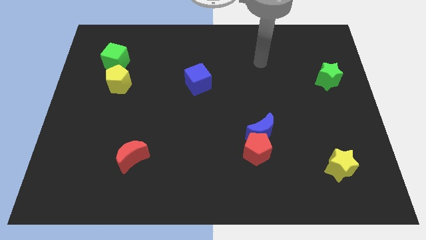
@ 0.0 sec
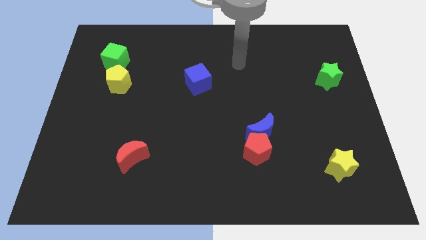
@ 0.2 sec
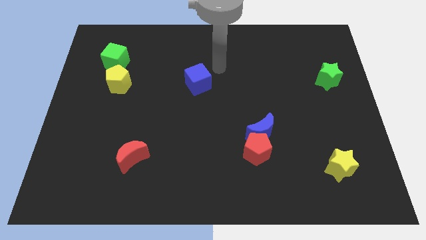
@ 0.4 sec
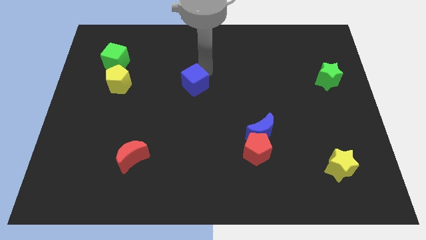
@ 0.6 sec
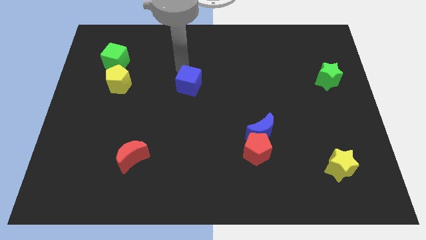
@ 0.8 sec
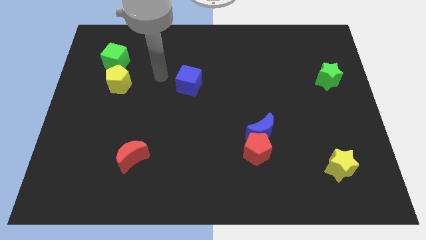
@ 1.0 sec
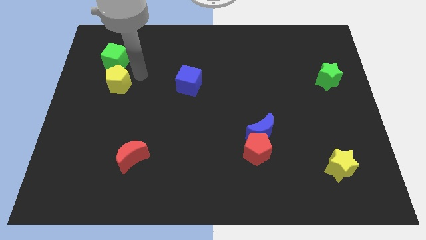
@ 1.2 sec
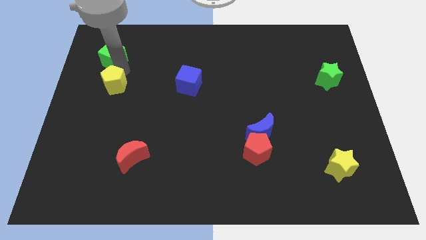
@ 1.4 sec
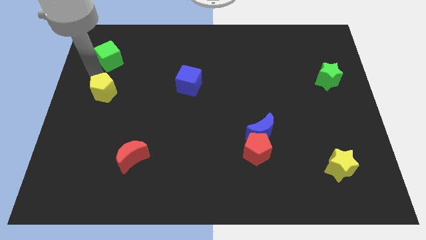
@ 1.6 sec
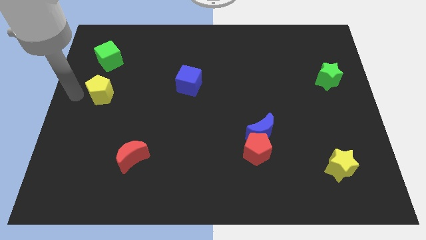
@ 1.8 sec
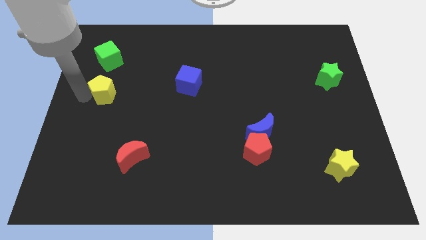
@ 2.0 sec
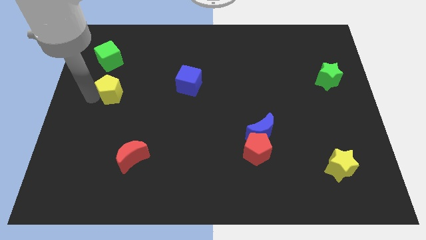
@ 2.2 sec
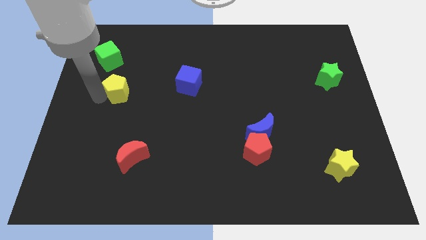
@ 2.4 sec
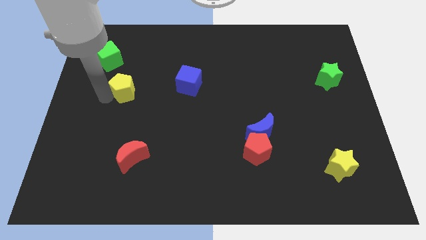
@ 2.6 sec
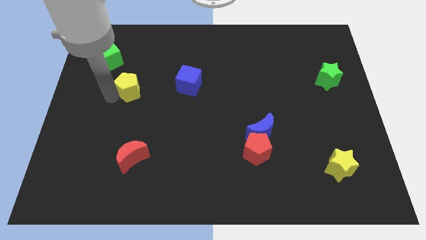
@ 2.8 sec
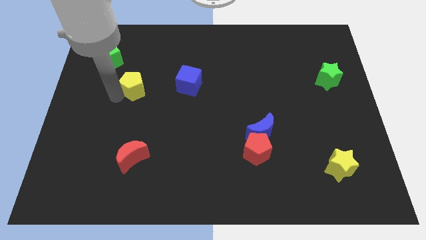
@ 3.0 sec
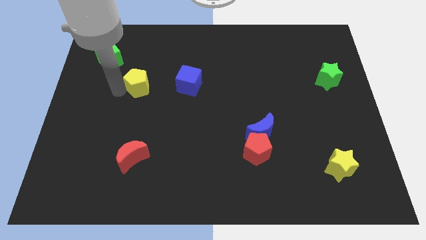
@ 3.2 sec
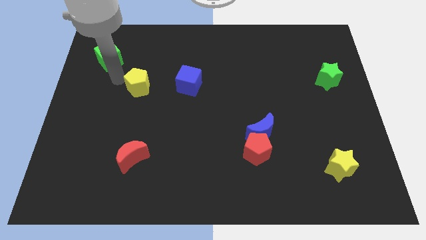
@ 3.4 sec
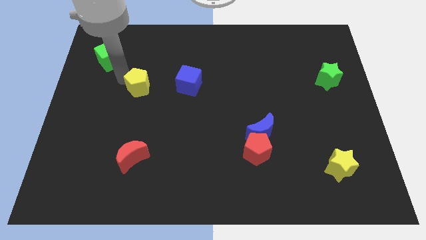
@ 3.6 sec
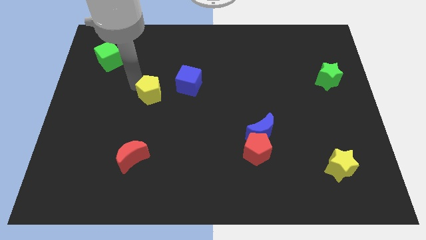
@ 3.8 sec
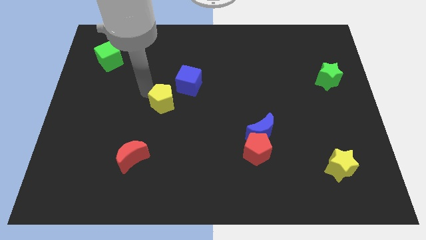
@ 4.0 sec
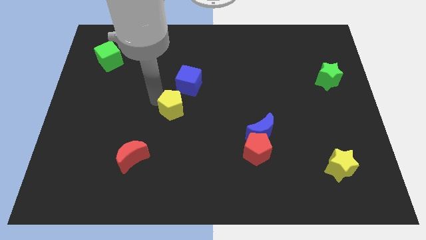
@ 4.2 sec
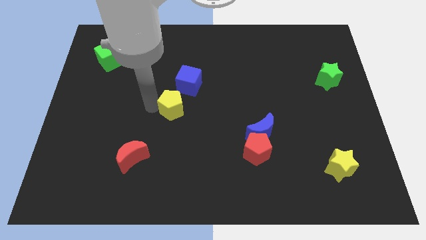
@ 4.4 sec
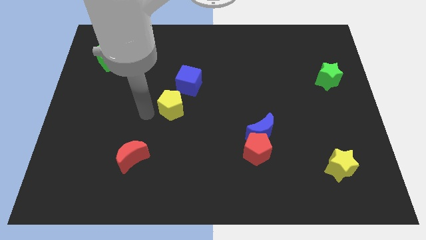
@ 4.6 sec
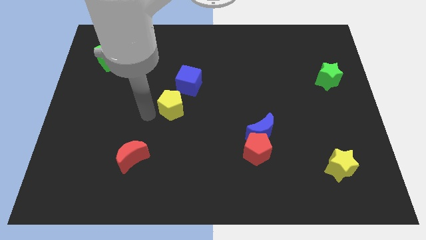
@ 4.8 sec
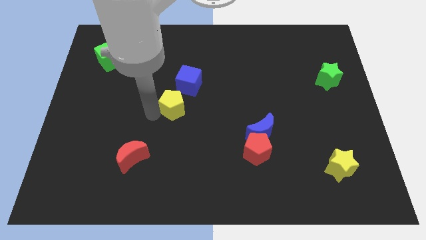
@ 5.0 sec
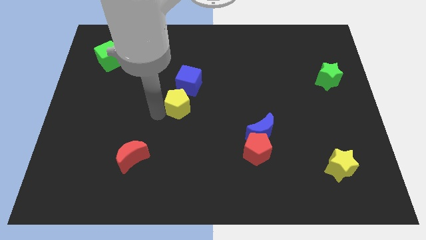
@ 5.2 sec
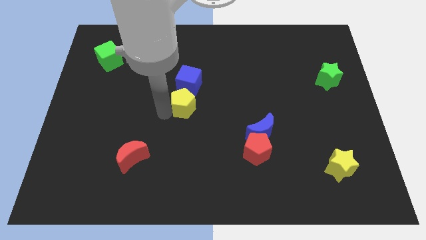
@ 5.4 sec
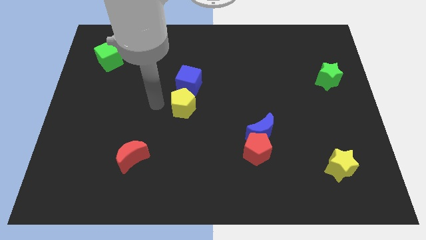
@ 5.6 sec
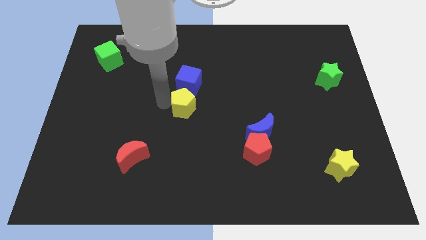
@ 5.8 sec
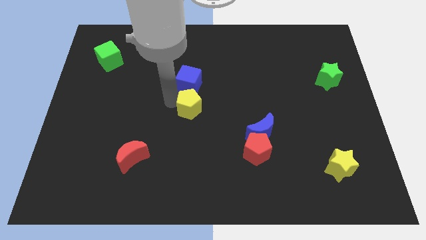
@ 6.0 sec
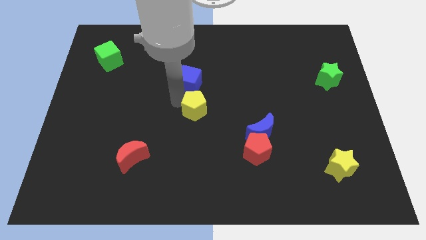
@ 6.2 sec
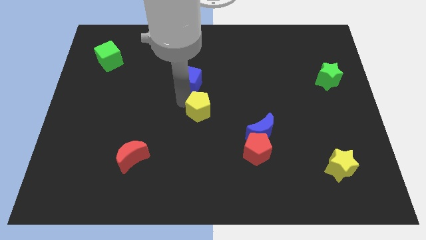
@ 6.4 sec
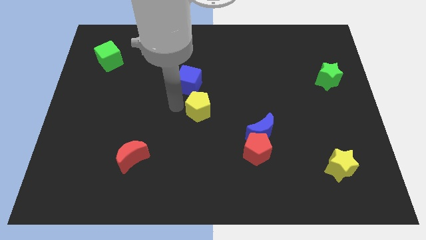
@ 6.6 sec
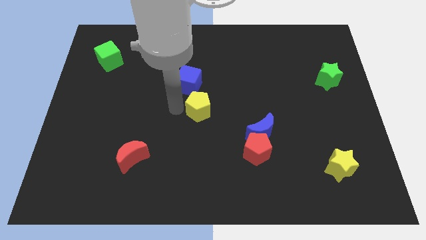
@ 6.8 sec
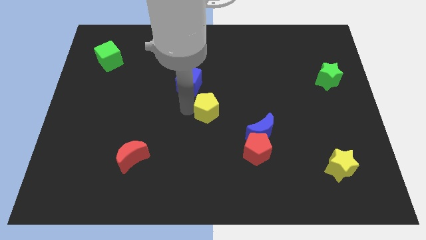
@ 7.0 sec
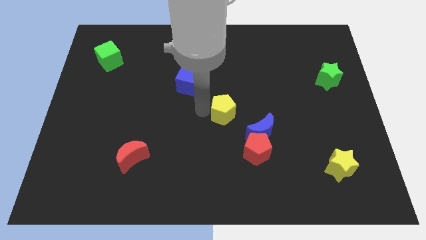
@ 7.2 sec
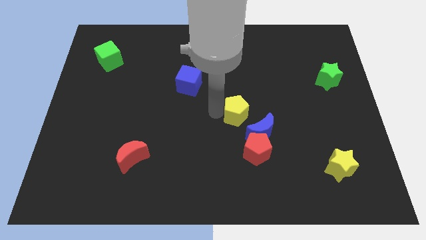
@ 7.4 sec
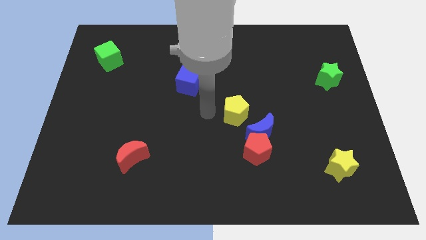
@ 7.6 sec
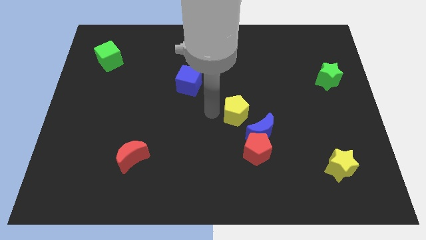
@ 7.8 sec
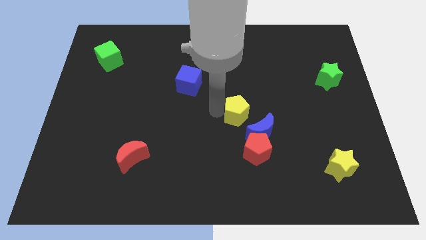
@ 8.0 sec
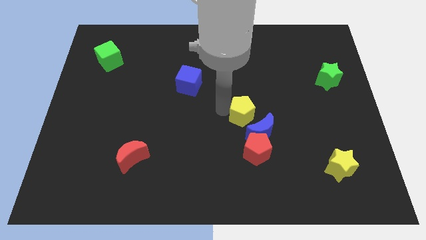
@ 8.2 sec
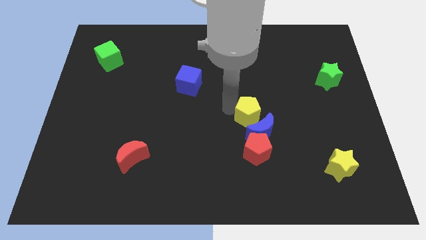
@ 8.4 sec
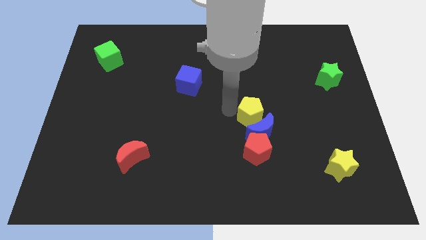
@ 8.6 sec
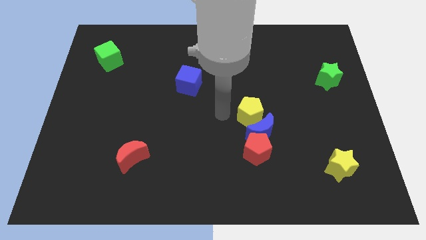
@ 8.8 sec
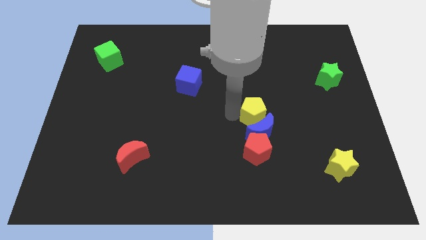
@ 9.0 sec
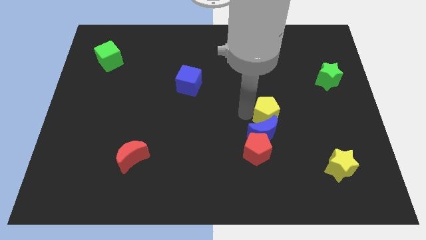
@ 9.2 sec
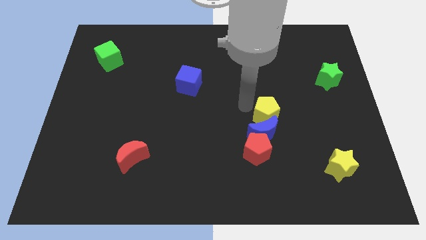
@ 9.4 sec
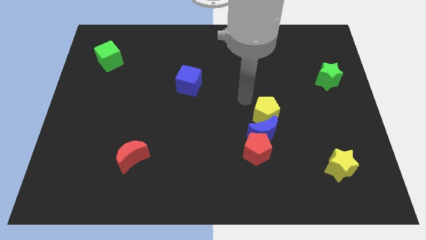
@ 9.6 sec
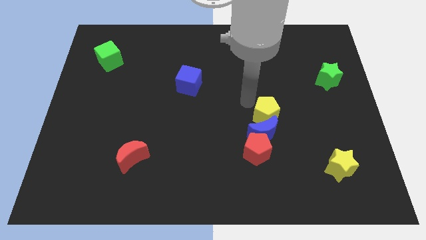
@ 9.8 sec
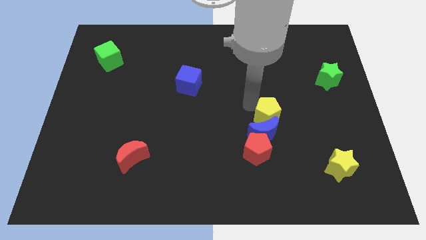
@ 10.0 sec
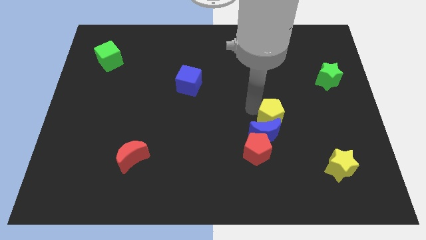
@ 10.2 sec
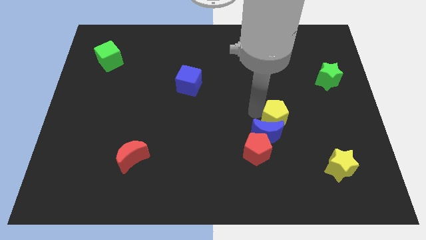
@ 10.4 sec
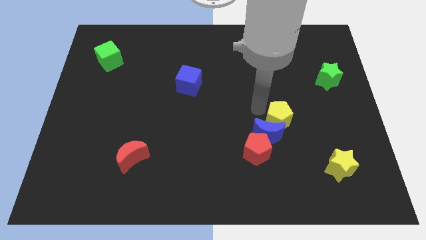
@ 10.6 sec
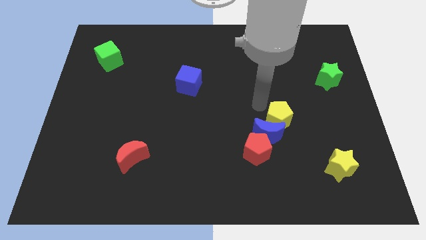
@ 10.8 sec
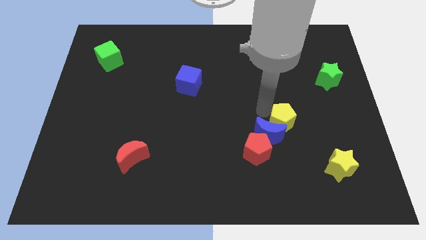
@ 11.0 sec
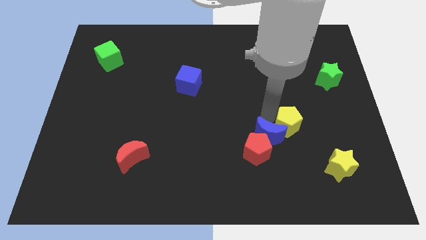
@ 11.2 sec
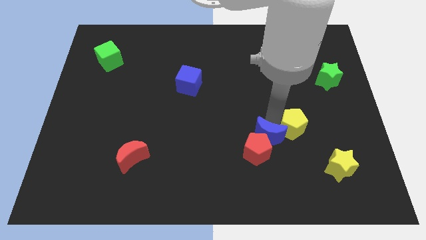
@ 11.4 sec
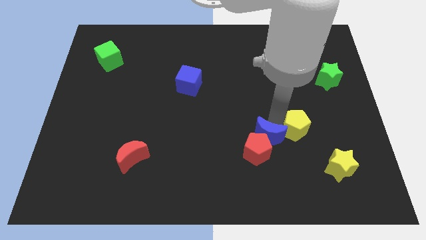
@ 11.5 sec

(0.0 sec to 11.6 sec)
slide the yellow pentagon diagonally up and to the left of the yellow star

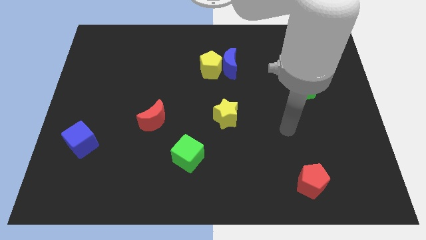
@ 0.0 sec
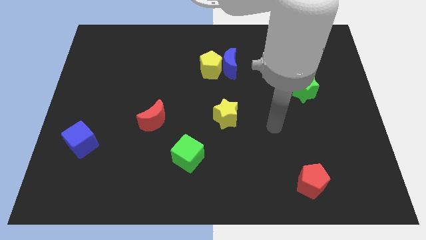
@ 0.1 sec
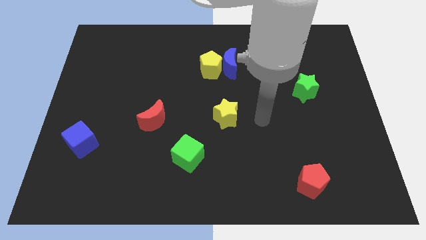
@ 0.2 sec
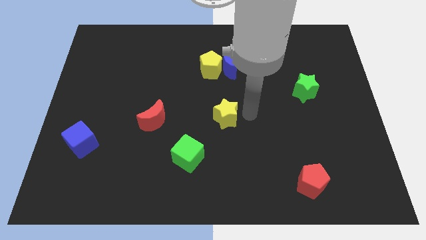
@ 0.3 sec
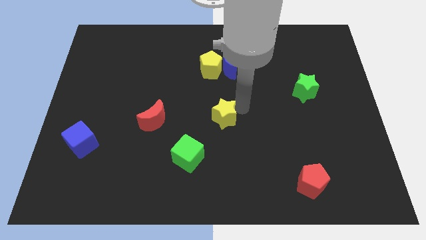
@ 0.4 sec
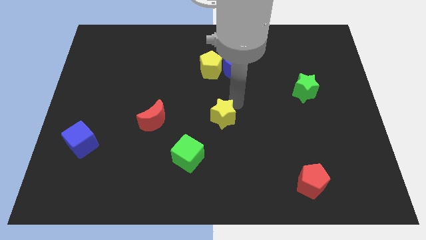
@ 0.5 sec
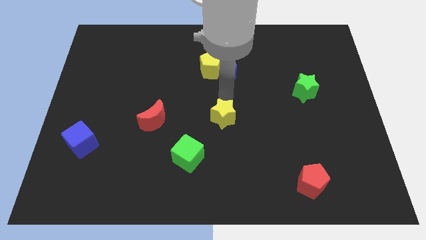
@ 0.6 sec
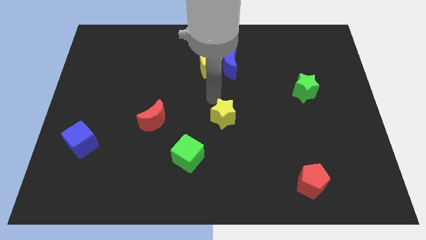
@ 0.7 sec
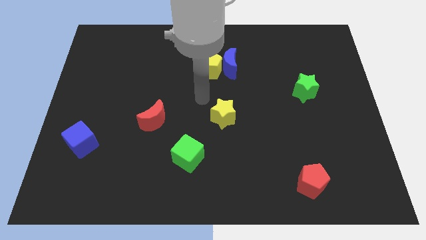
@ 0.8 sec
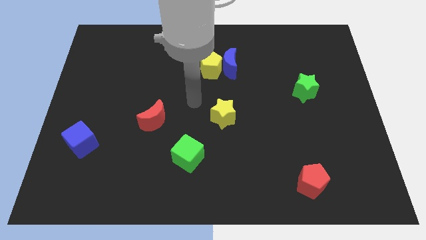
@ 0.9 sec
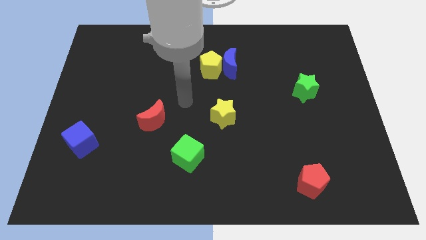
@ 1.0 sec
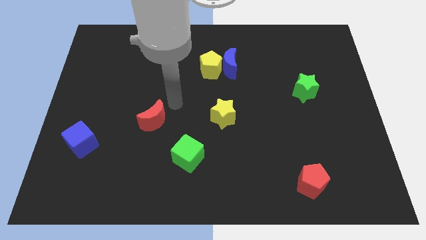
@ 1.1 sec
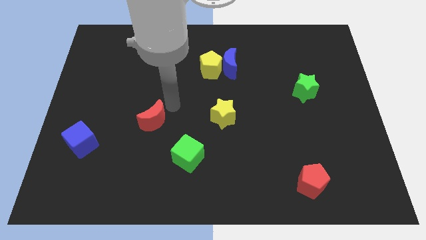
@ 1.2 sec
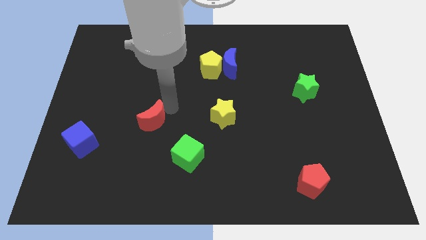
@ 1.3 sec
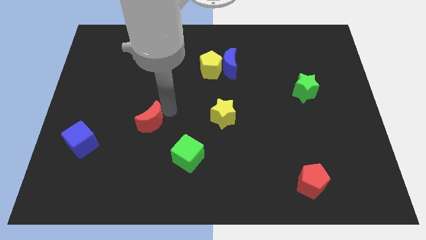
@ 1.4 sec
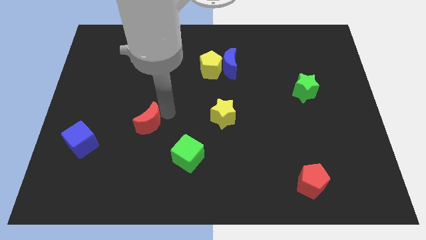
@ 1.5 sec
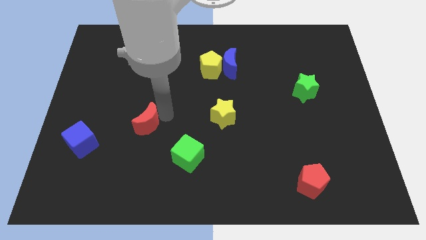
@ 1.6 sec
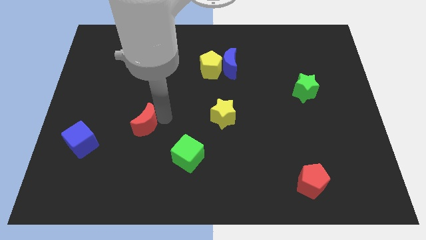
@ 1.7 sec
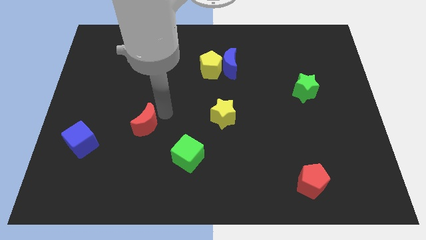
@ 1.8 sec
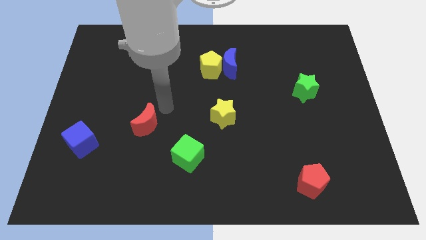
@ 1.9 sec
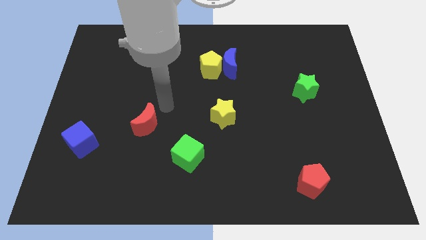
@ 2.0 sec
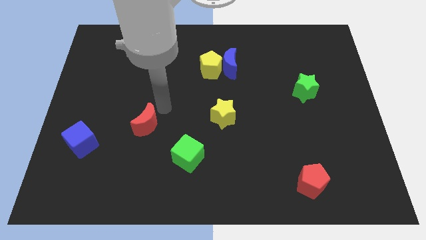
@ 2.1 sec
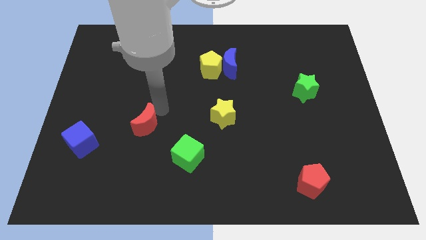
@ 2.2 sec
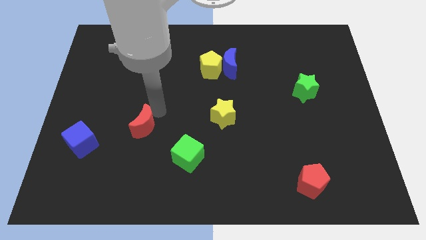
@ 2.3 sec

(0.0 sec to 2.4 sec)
push the red moon just right of the blue cube
